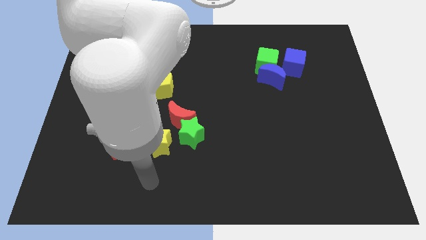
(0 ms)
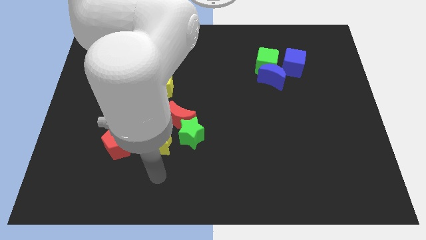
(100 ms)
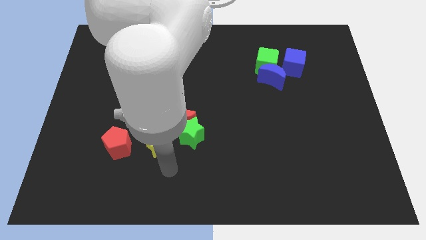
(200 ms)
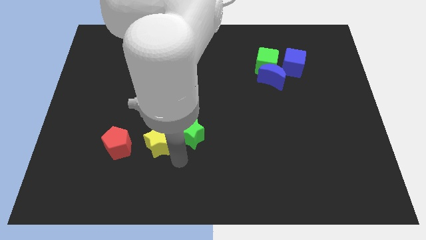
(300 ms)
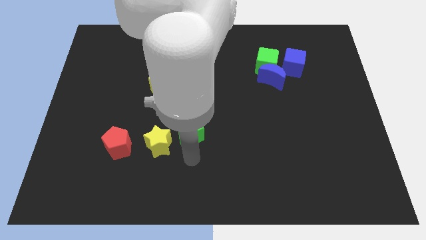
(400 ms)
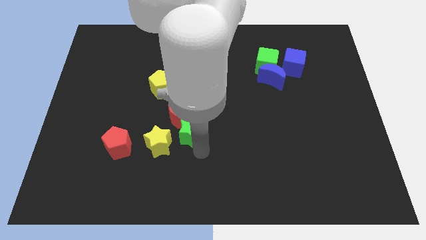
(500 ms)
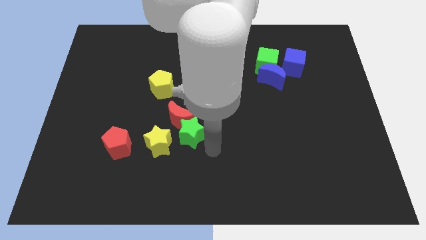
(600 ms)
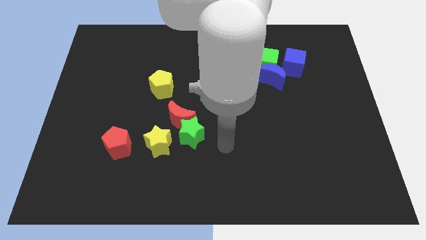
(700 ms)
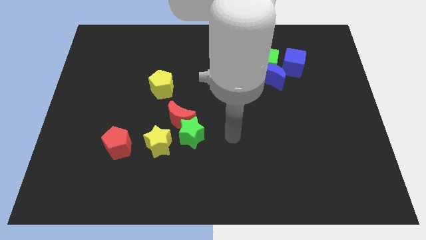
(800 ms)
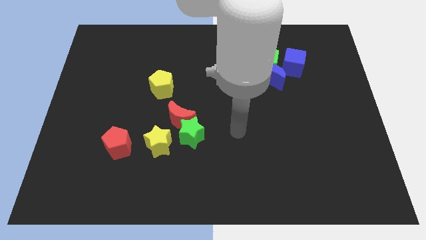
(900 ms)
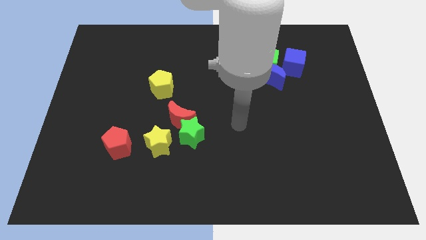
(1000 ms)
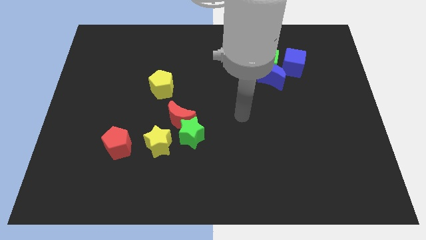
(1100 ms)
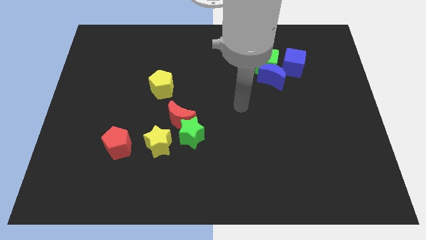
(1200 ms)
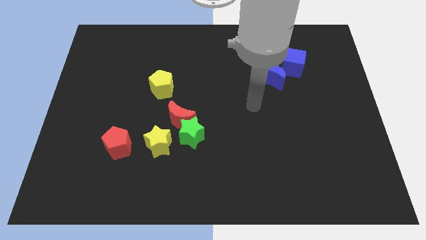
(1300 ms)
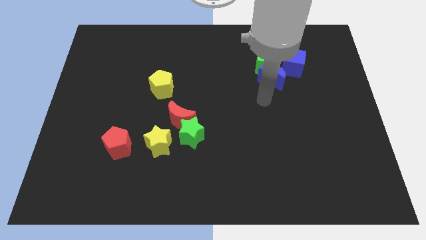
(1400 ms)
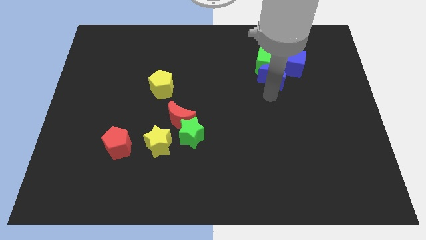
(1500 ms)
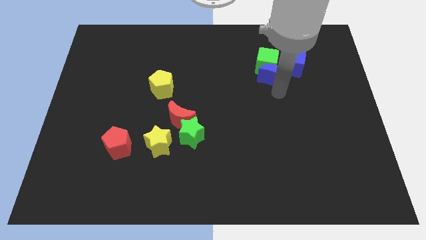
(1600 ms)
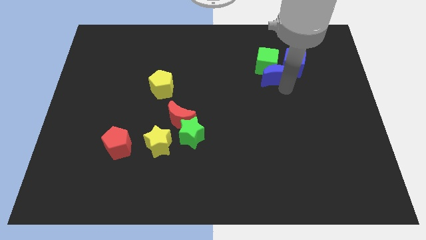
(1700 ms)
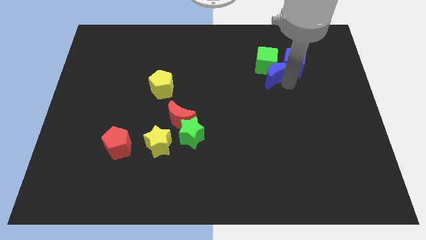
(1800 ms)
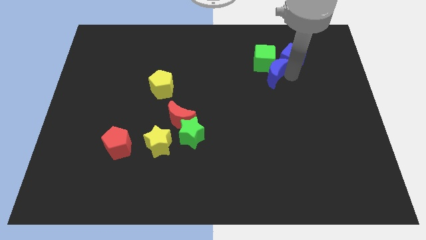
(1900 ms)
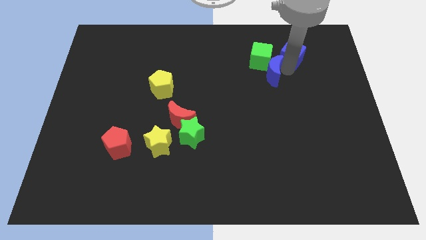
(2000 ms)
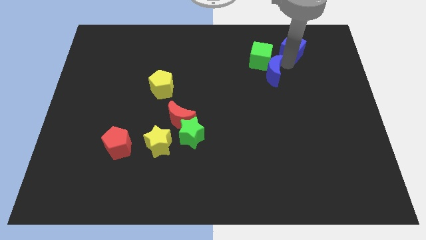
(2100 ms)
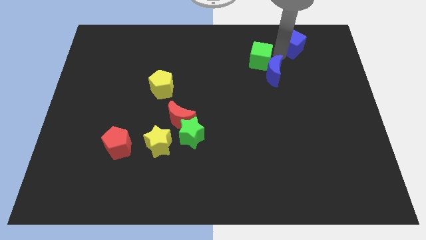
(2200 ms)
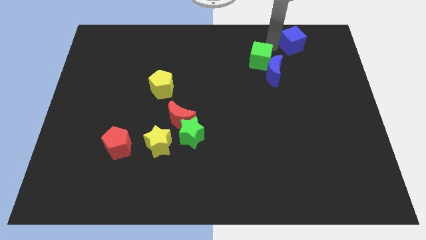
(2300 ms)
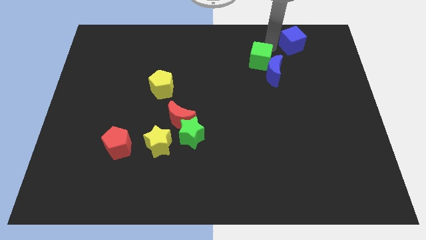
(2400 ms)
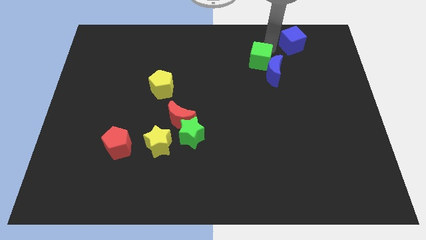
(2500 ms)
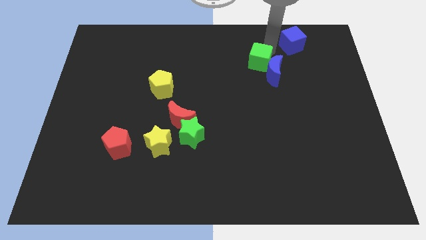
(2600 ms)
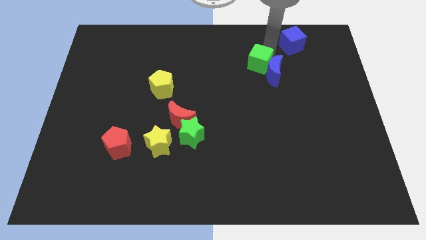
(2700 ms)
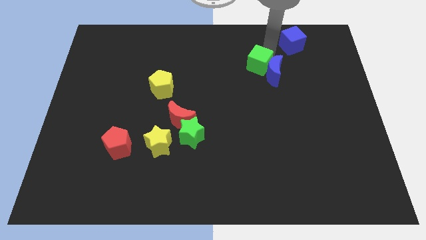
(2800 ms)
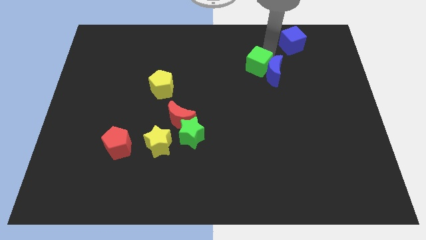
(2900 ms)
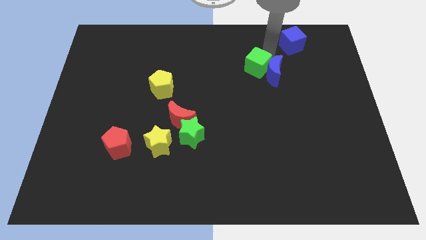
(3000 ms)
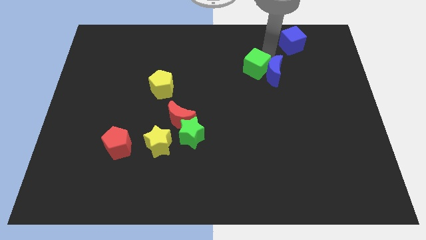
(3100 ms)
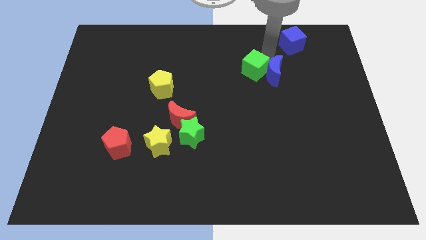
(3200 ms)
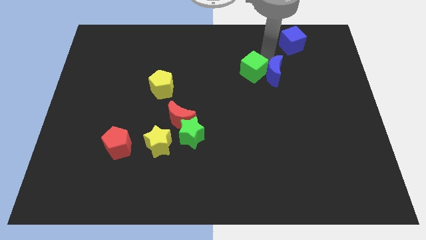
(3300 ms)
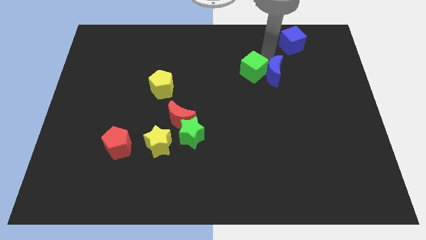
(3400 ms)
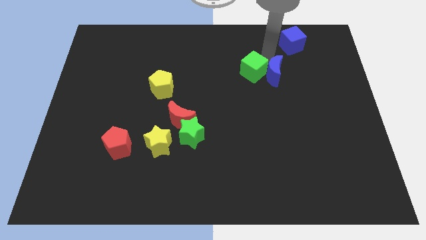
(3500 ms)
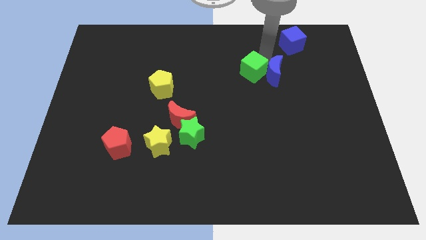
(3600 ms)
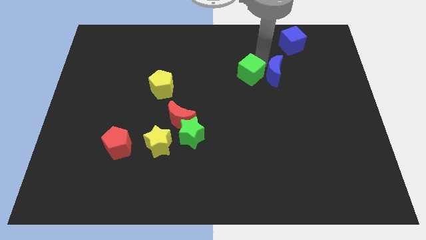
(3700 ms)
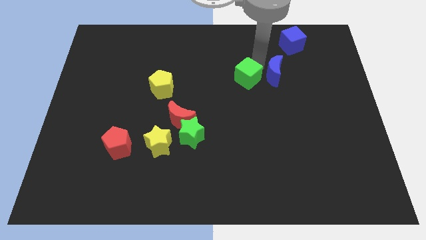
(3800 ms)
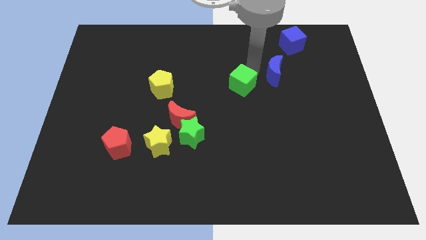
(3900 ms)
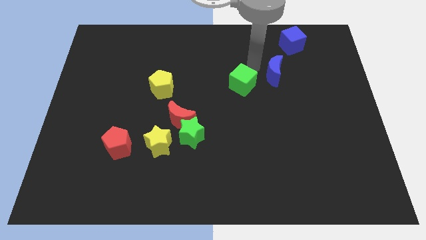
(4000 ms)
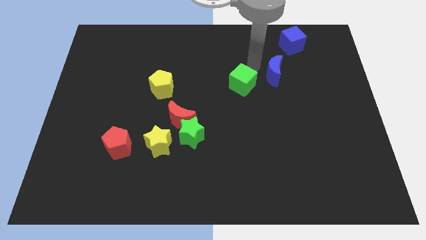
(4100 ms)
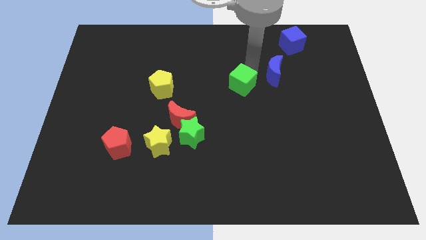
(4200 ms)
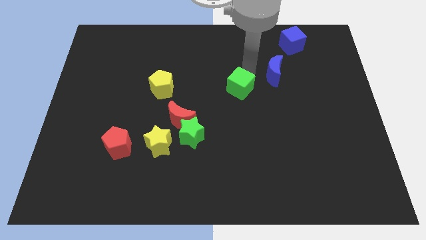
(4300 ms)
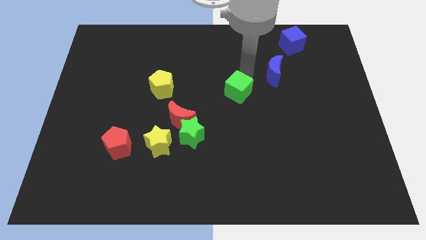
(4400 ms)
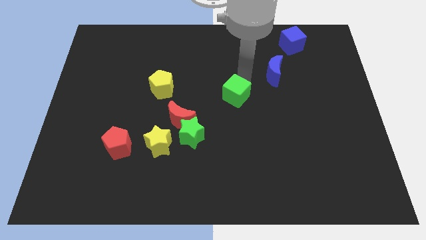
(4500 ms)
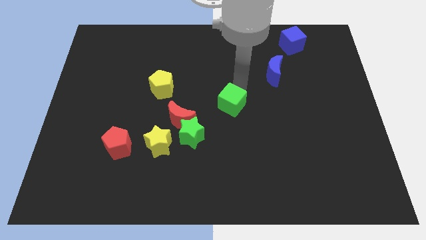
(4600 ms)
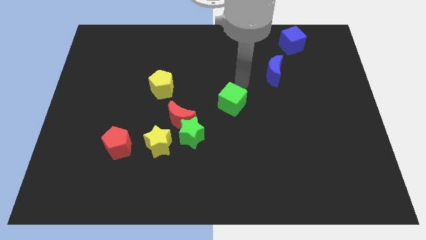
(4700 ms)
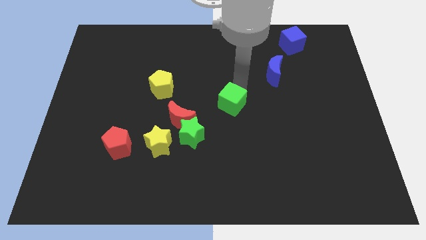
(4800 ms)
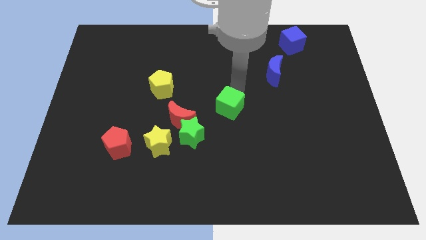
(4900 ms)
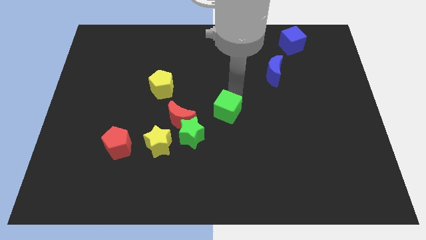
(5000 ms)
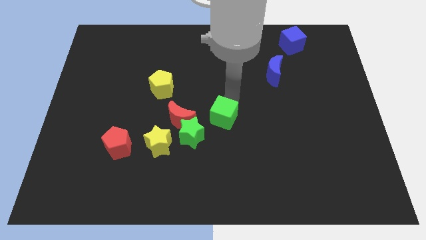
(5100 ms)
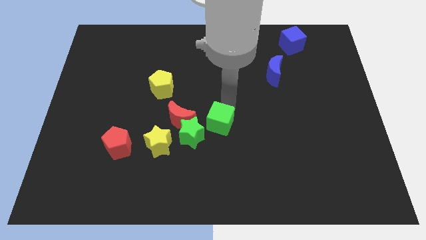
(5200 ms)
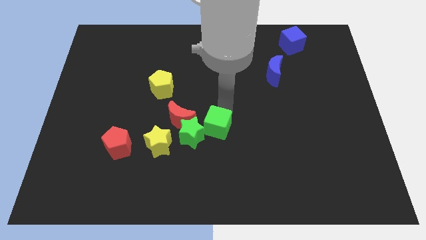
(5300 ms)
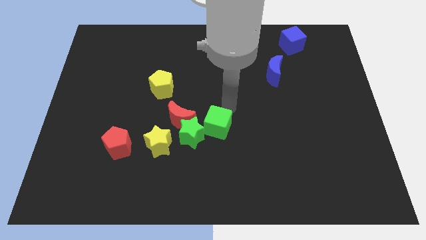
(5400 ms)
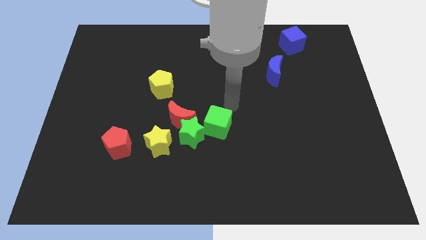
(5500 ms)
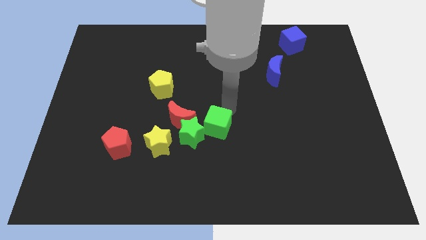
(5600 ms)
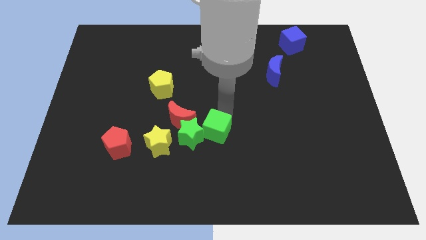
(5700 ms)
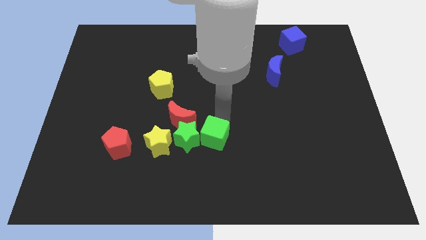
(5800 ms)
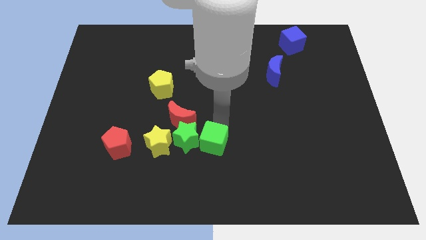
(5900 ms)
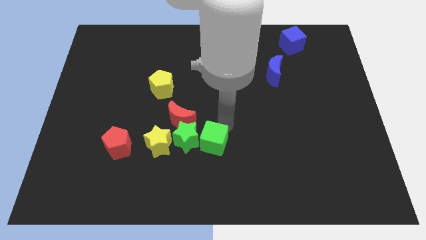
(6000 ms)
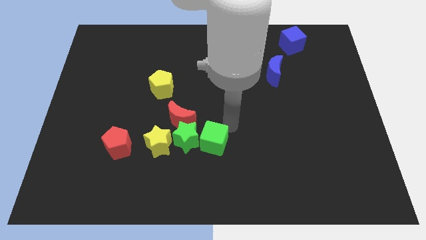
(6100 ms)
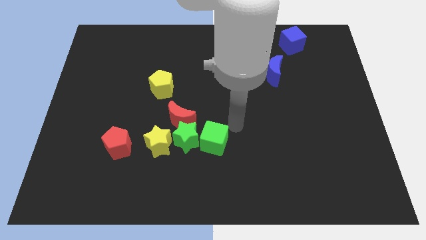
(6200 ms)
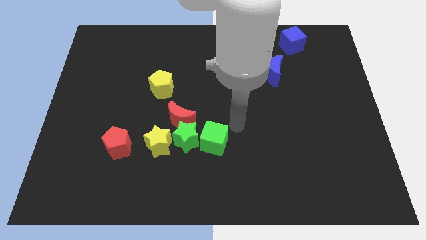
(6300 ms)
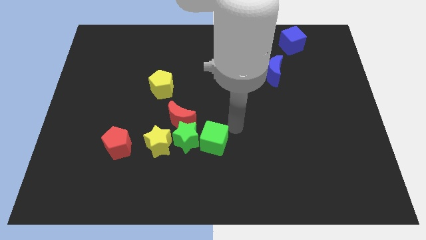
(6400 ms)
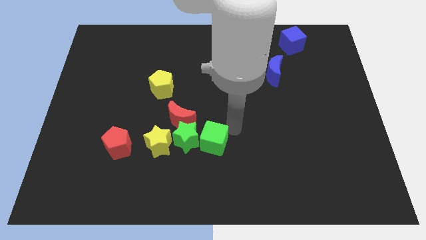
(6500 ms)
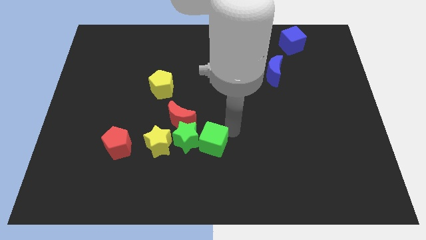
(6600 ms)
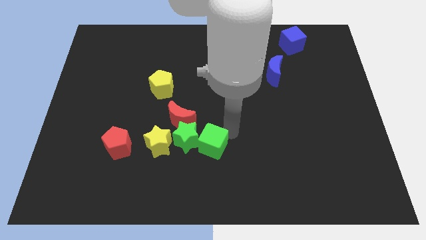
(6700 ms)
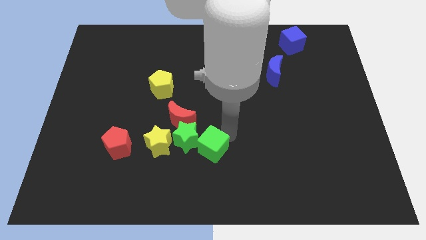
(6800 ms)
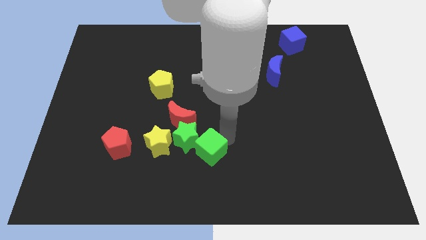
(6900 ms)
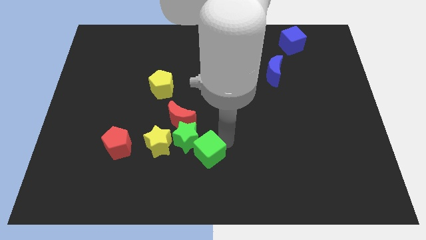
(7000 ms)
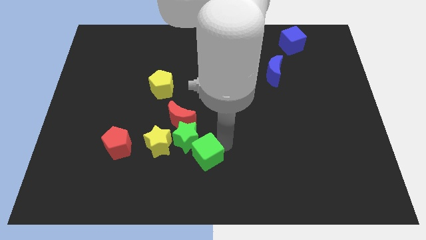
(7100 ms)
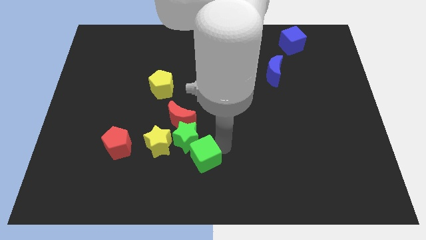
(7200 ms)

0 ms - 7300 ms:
put the green cube to the bottom right of the yellow star

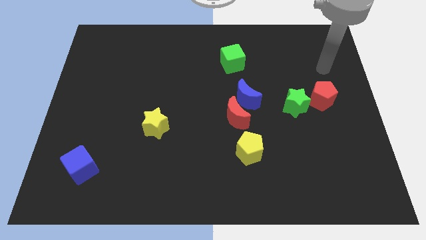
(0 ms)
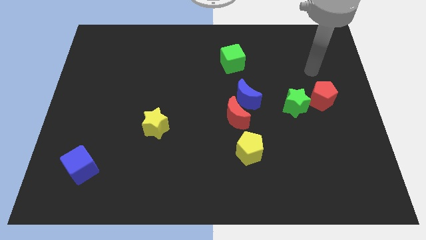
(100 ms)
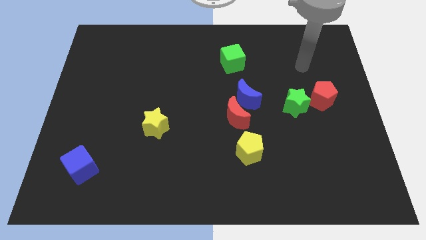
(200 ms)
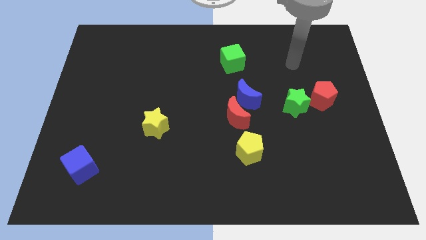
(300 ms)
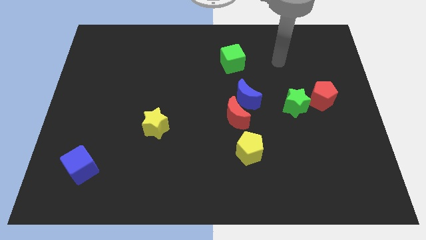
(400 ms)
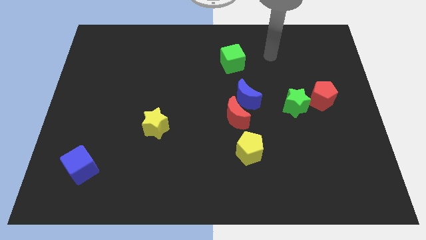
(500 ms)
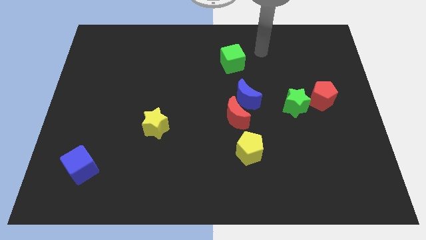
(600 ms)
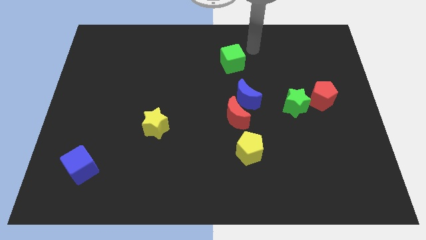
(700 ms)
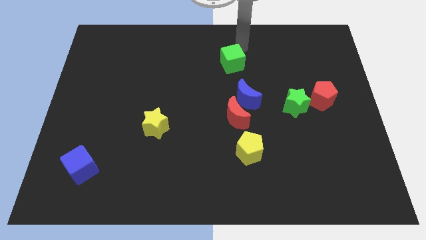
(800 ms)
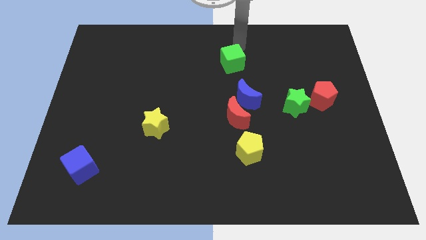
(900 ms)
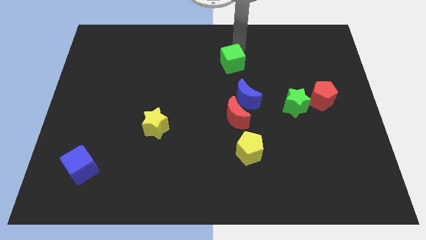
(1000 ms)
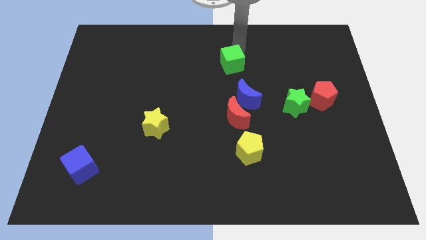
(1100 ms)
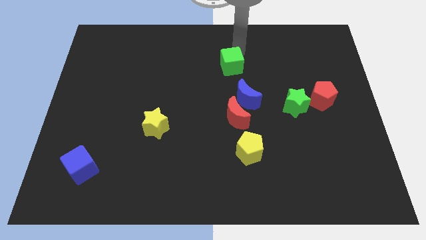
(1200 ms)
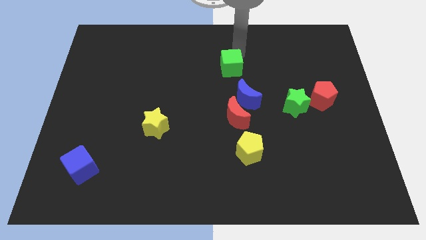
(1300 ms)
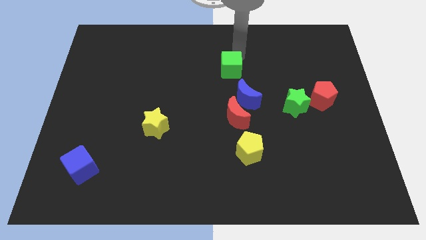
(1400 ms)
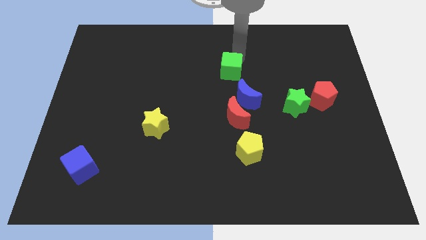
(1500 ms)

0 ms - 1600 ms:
push the green cube to the top left of the blue moon
